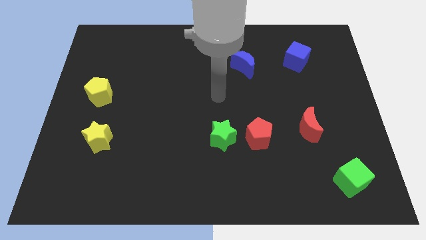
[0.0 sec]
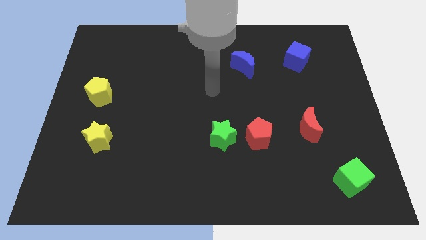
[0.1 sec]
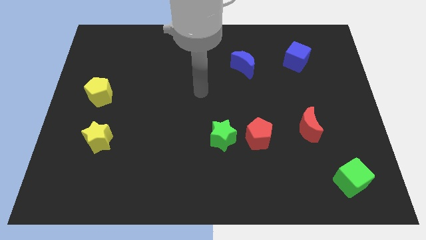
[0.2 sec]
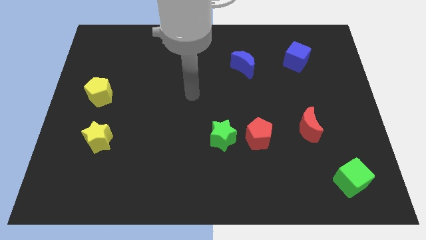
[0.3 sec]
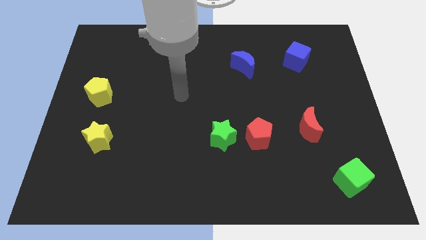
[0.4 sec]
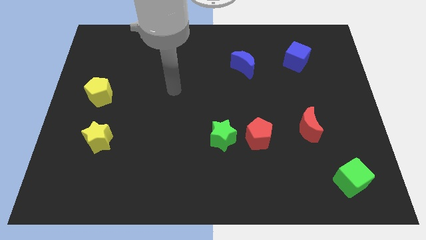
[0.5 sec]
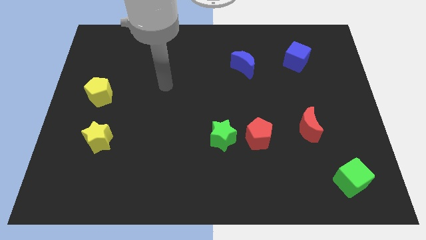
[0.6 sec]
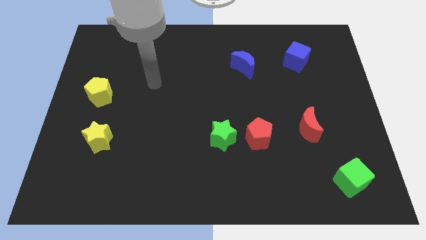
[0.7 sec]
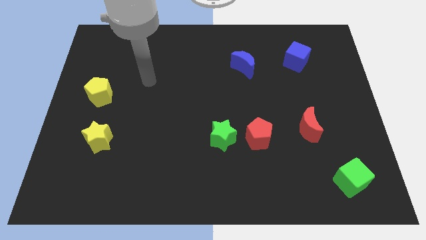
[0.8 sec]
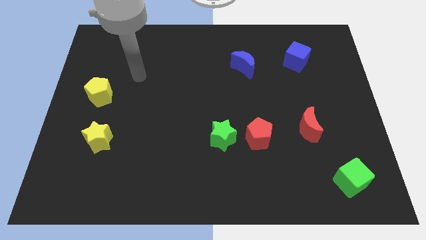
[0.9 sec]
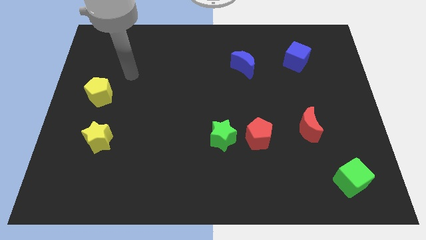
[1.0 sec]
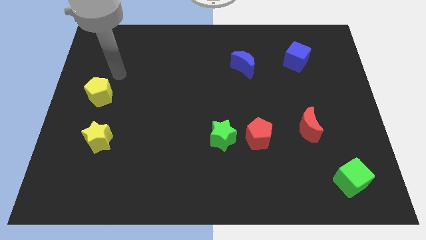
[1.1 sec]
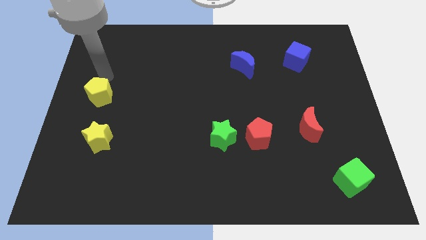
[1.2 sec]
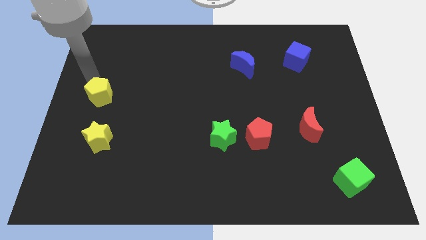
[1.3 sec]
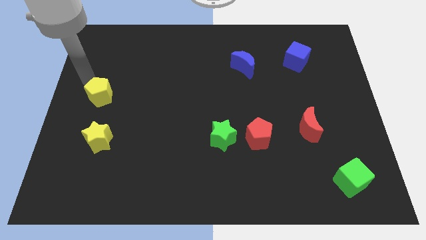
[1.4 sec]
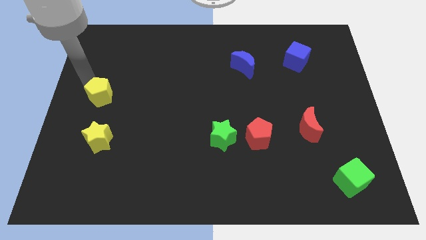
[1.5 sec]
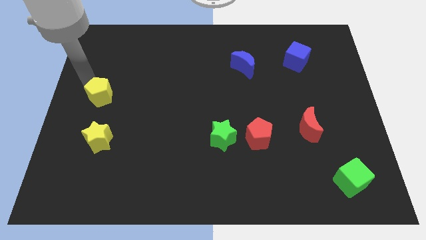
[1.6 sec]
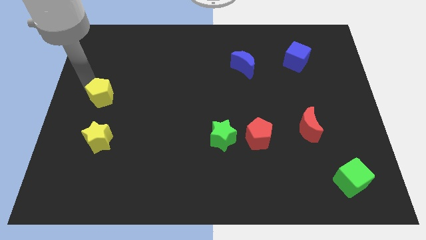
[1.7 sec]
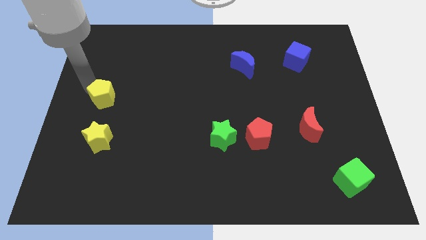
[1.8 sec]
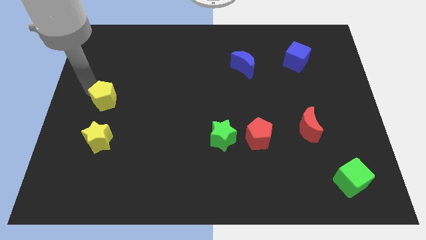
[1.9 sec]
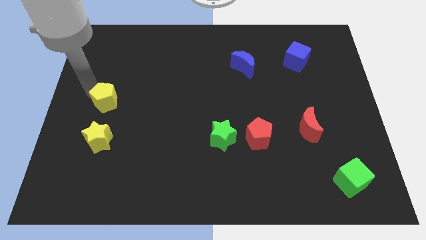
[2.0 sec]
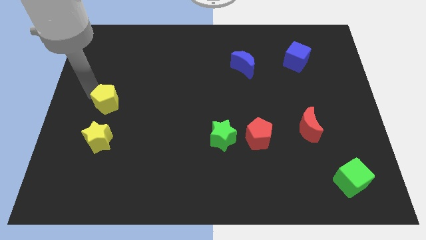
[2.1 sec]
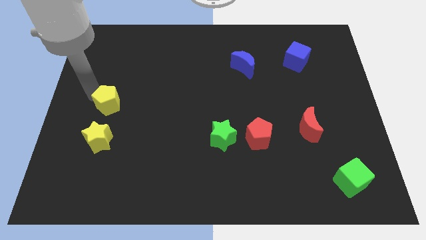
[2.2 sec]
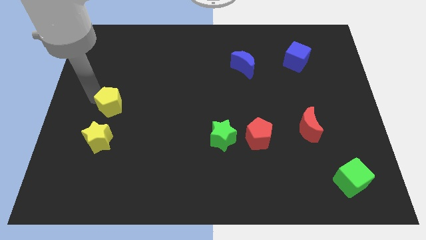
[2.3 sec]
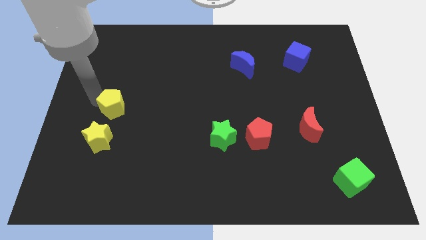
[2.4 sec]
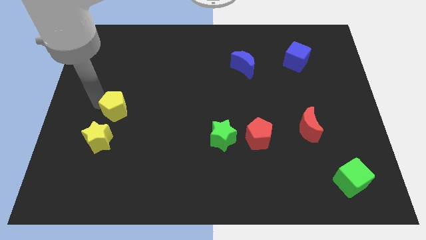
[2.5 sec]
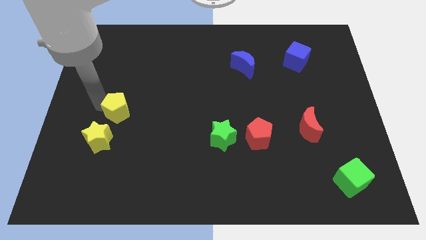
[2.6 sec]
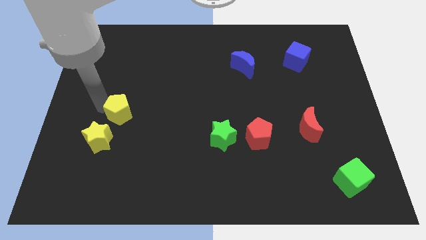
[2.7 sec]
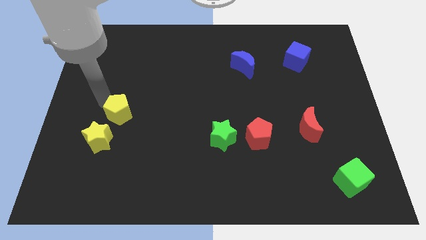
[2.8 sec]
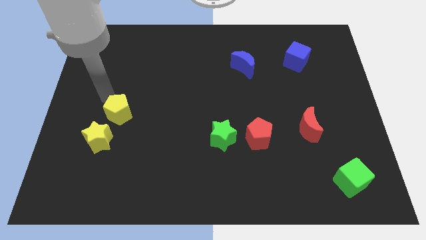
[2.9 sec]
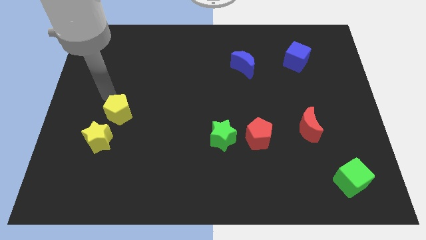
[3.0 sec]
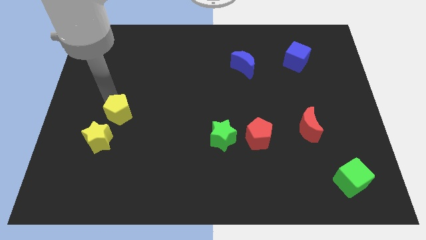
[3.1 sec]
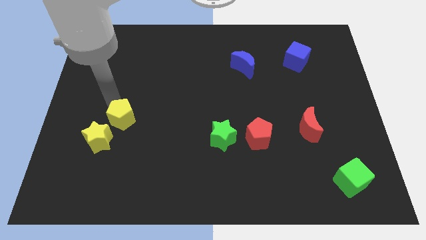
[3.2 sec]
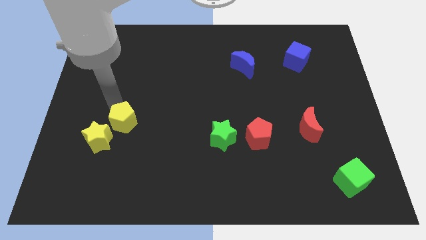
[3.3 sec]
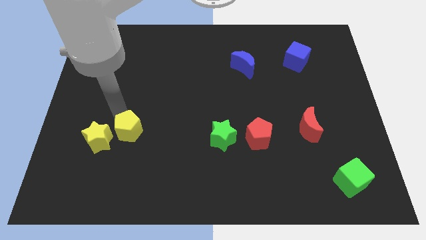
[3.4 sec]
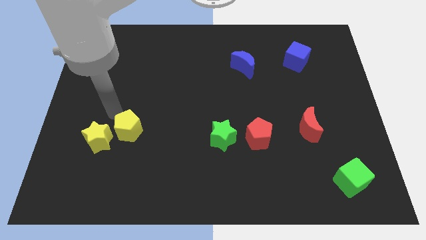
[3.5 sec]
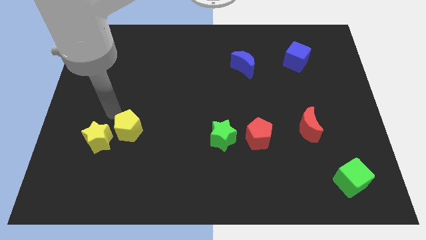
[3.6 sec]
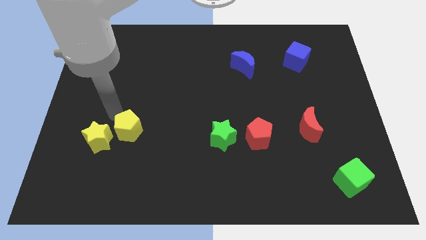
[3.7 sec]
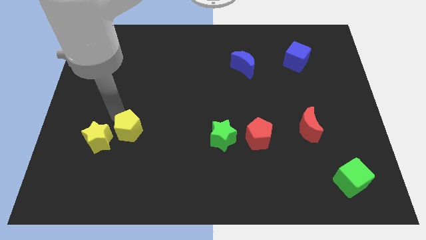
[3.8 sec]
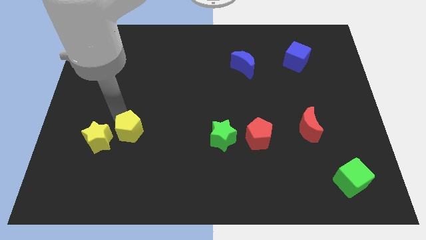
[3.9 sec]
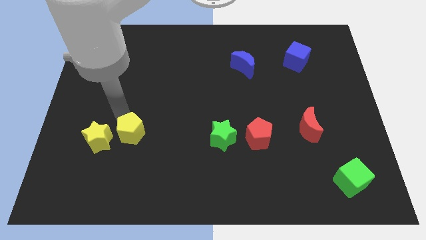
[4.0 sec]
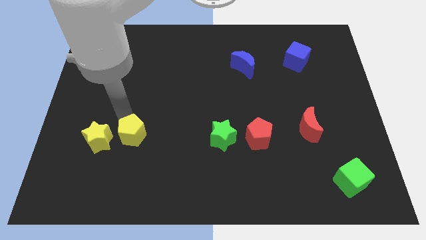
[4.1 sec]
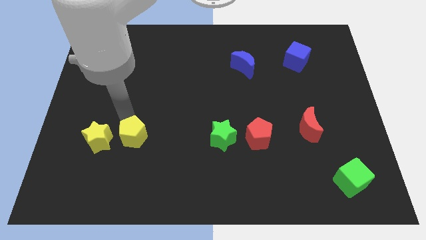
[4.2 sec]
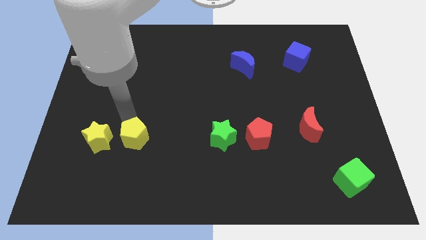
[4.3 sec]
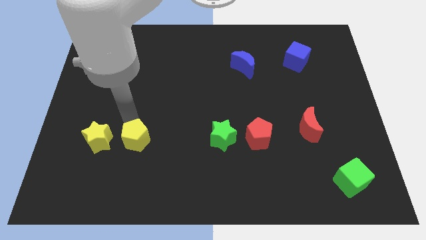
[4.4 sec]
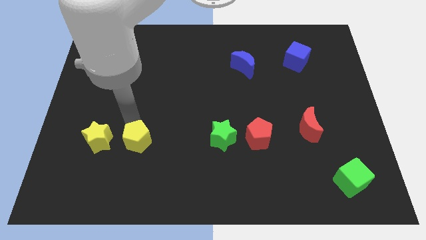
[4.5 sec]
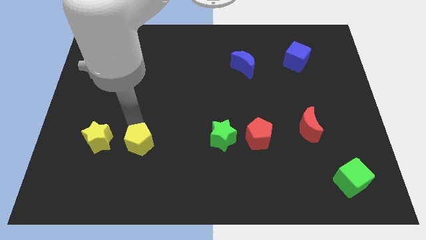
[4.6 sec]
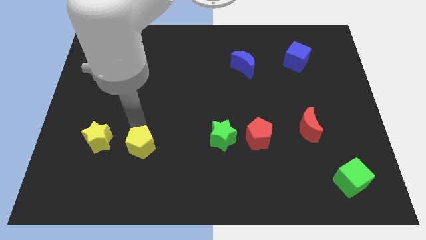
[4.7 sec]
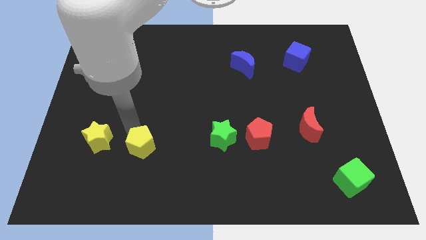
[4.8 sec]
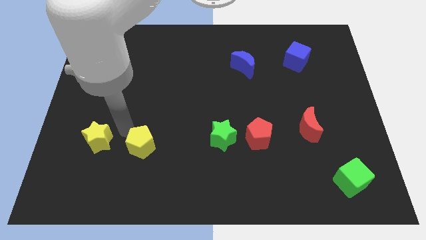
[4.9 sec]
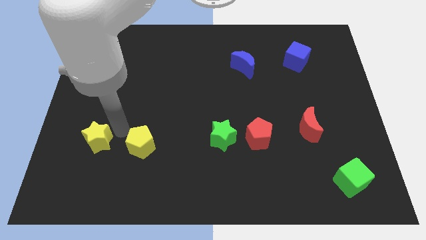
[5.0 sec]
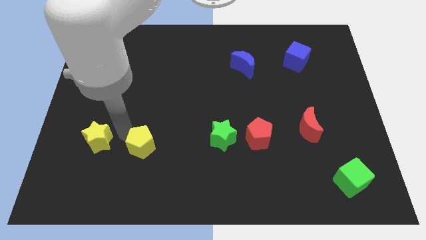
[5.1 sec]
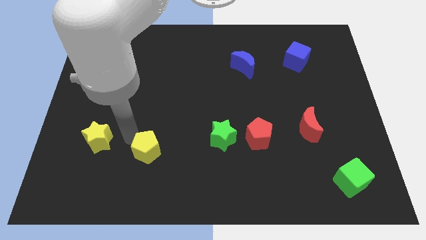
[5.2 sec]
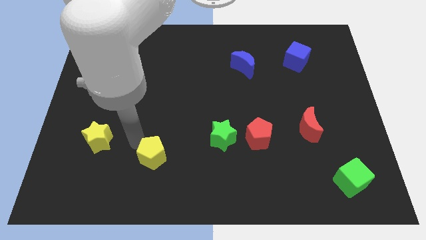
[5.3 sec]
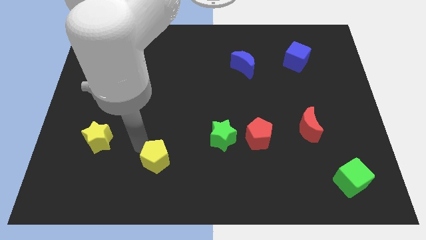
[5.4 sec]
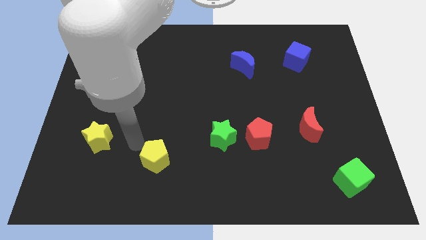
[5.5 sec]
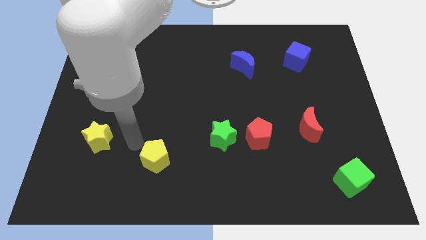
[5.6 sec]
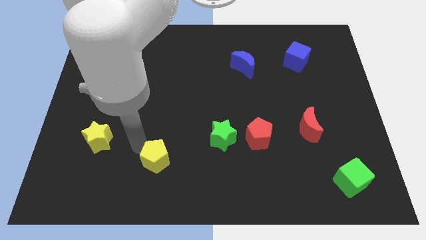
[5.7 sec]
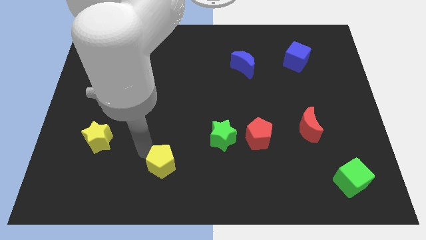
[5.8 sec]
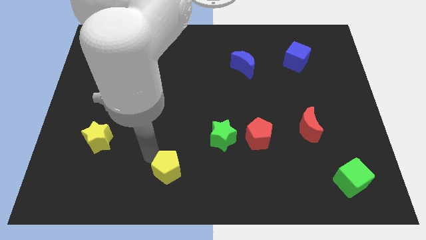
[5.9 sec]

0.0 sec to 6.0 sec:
put the yellow pentagon to the bottom side

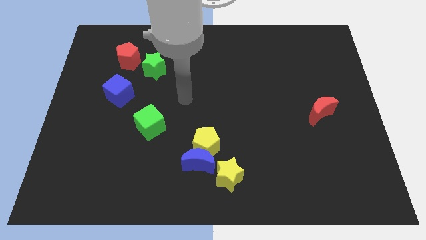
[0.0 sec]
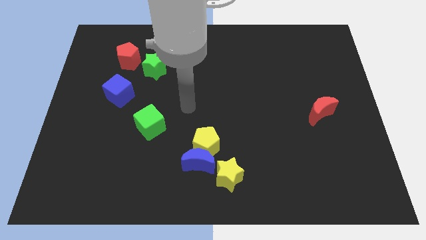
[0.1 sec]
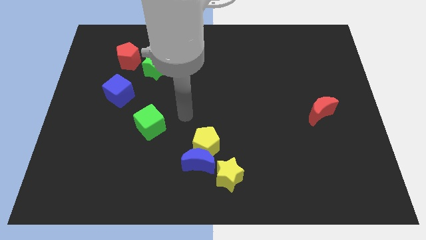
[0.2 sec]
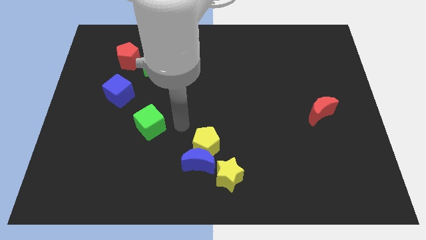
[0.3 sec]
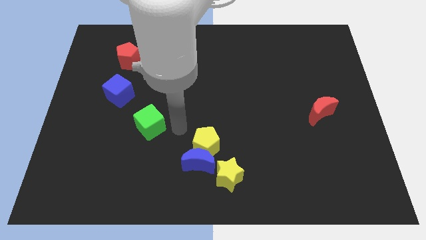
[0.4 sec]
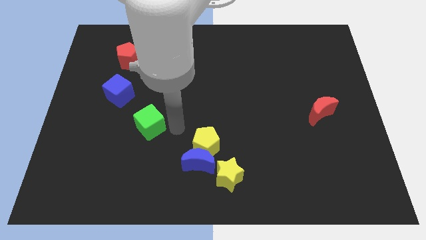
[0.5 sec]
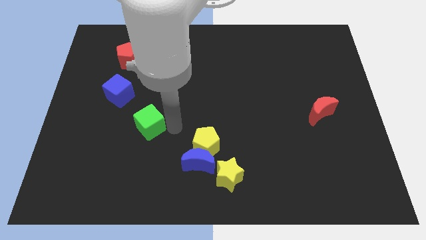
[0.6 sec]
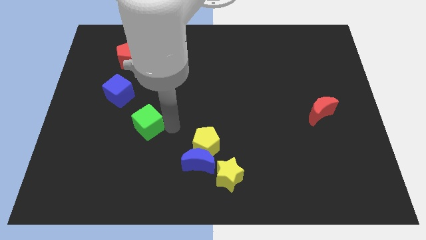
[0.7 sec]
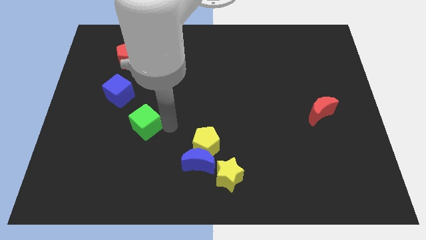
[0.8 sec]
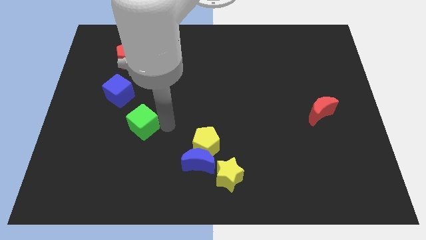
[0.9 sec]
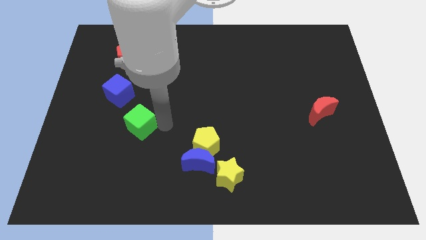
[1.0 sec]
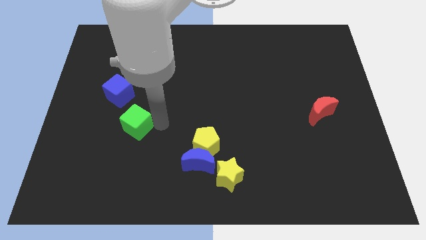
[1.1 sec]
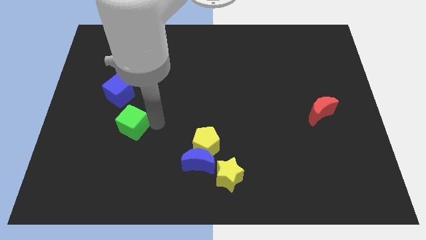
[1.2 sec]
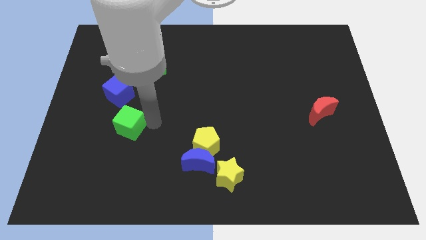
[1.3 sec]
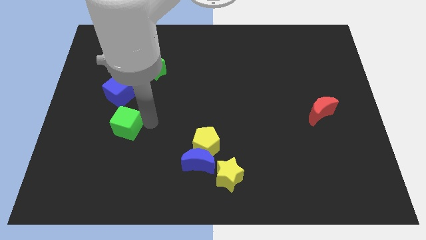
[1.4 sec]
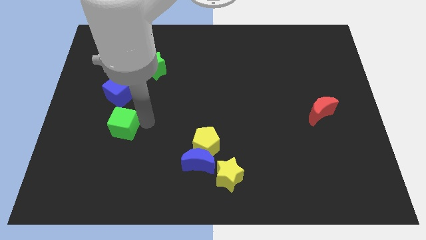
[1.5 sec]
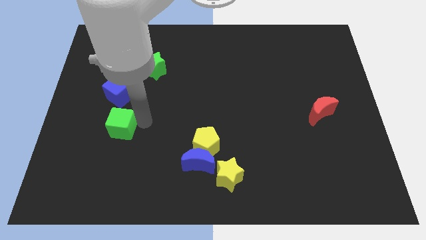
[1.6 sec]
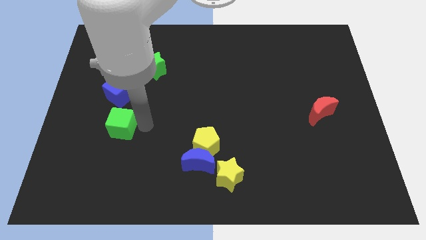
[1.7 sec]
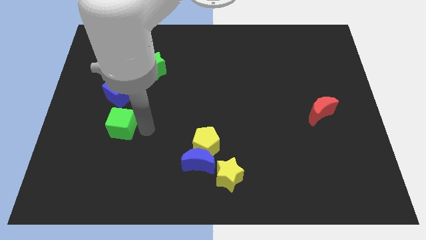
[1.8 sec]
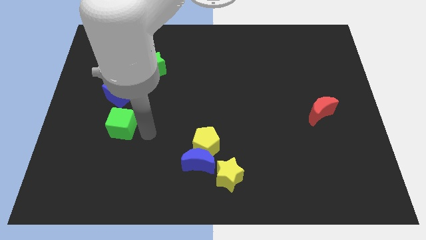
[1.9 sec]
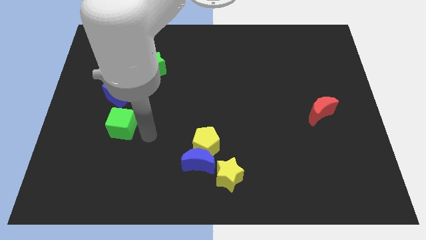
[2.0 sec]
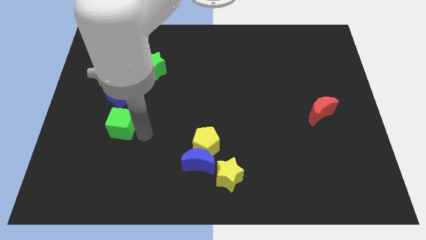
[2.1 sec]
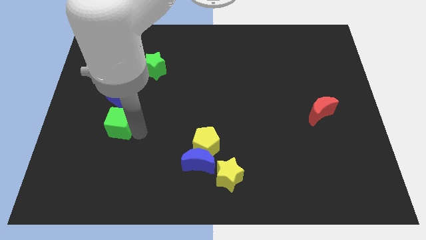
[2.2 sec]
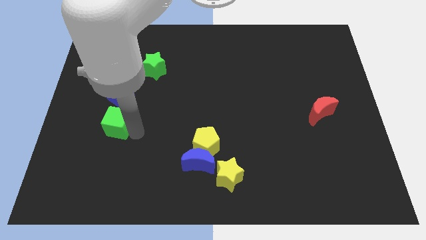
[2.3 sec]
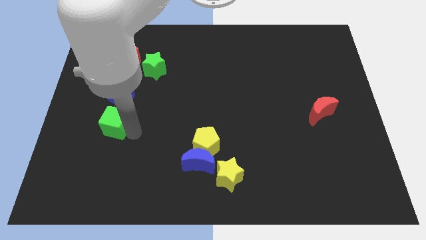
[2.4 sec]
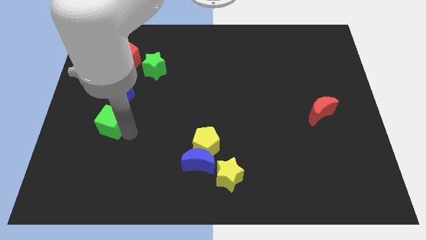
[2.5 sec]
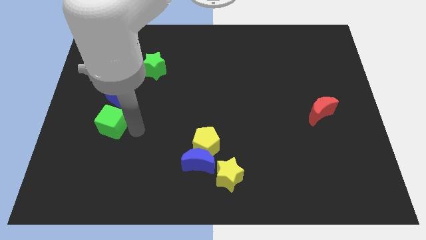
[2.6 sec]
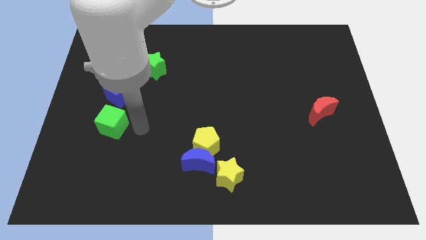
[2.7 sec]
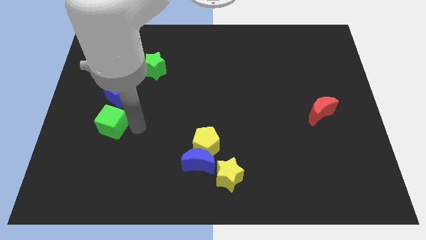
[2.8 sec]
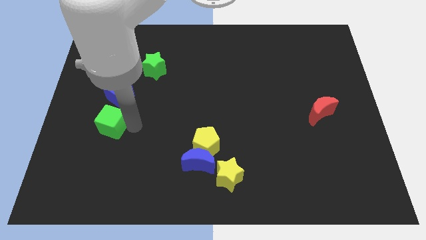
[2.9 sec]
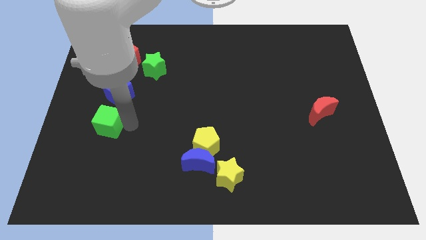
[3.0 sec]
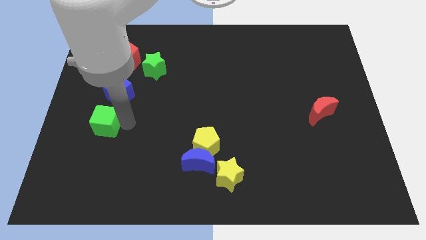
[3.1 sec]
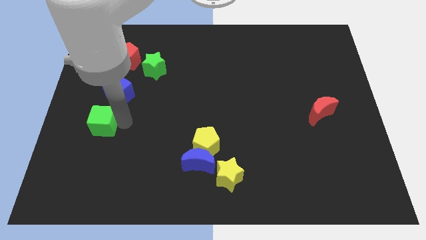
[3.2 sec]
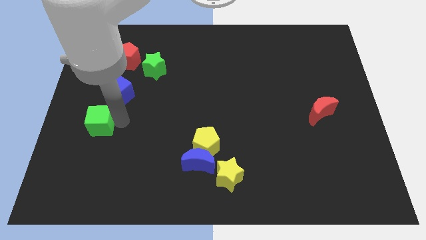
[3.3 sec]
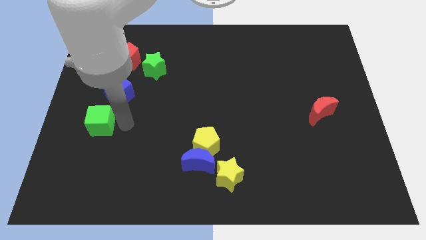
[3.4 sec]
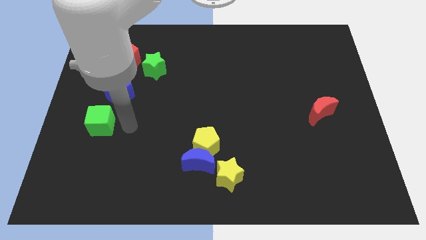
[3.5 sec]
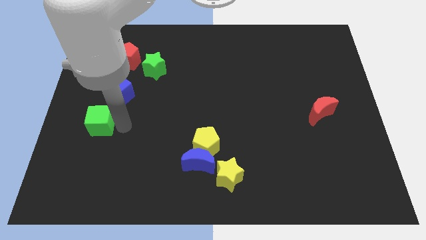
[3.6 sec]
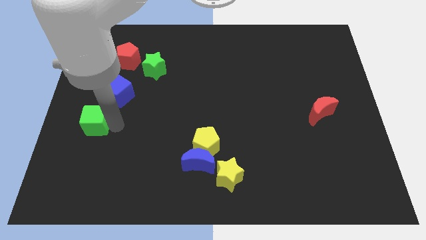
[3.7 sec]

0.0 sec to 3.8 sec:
move the green cube to the left side
